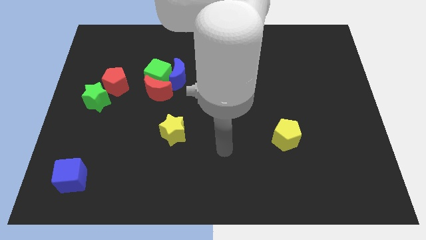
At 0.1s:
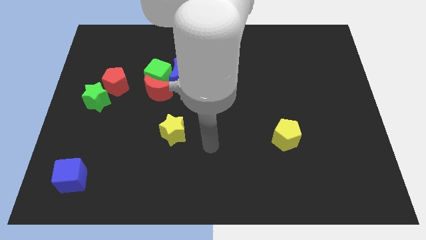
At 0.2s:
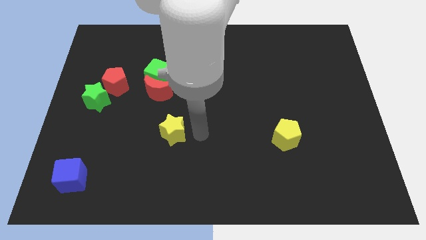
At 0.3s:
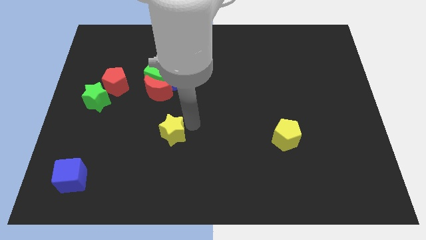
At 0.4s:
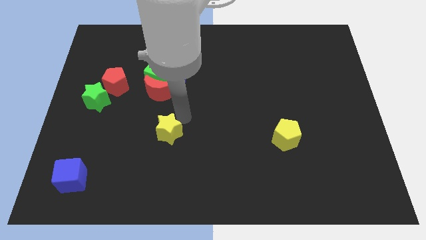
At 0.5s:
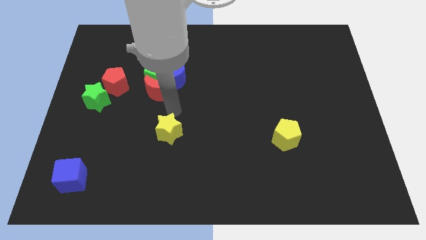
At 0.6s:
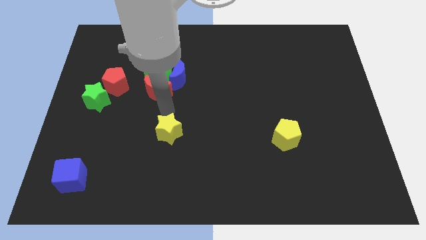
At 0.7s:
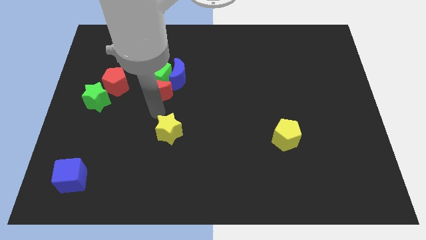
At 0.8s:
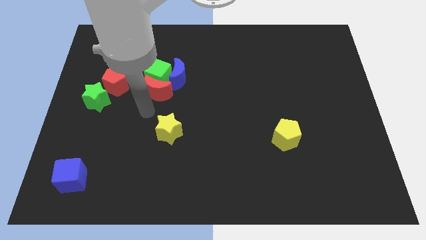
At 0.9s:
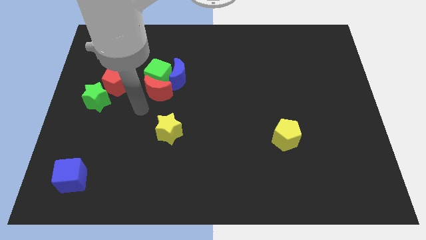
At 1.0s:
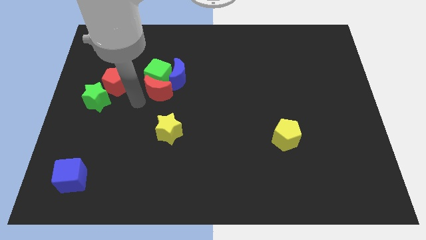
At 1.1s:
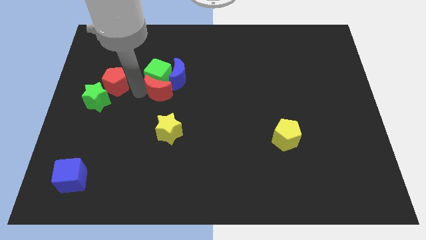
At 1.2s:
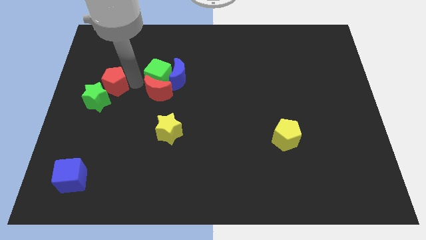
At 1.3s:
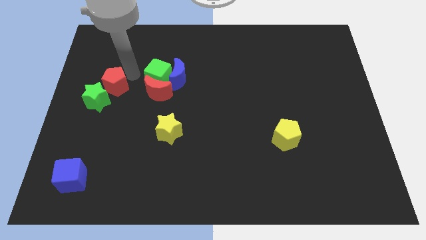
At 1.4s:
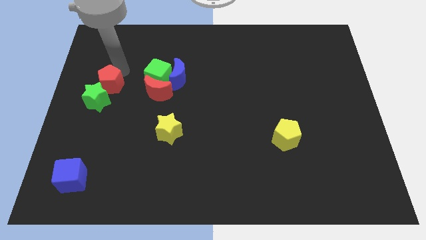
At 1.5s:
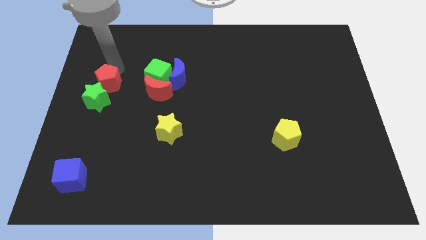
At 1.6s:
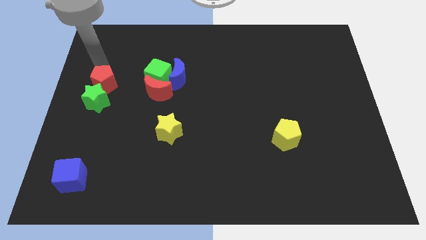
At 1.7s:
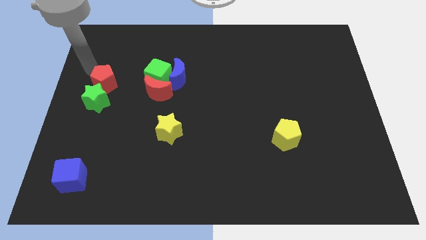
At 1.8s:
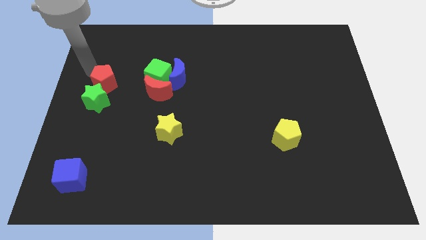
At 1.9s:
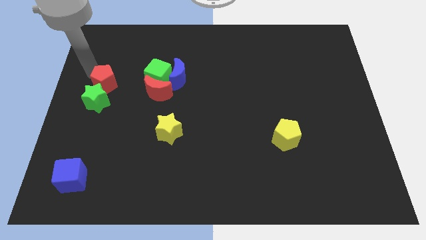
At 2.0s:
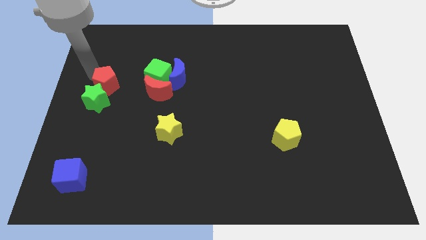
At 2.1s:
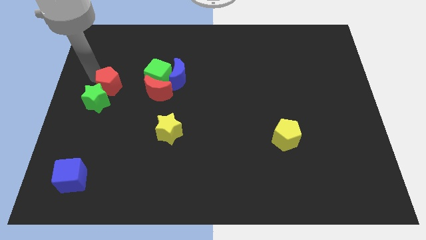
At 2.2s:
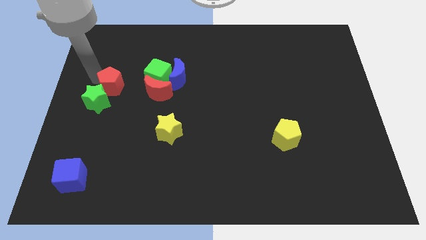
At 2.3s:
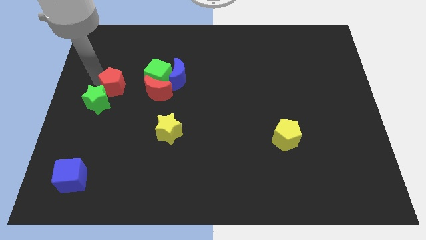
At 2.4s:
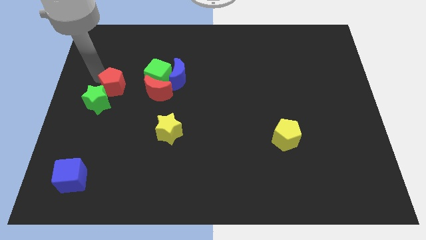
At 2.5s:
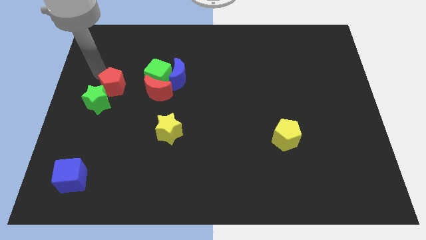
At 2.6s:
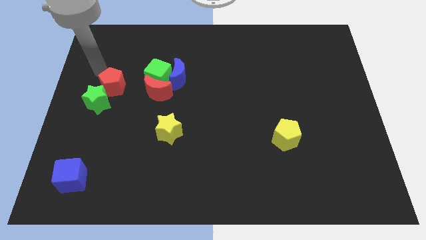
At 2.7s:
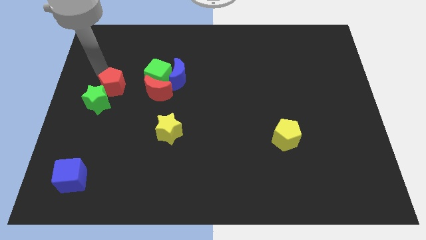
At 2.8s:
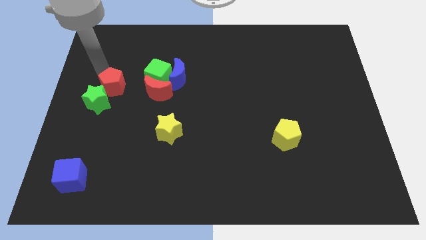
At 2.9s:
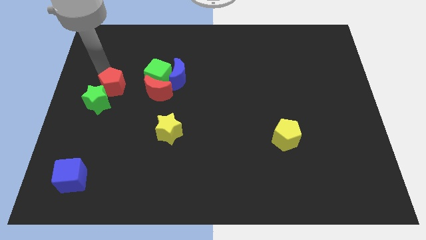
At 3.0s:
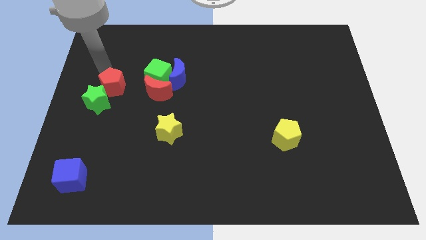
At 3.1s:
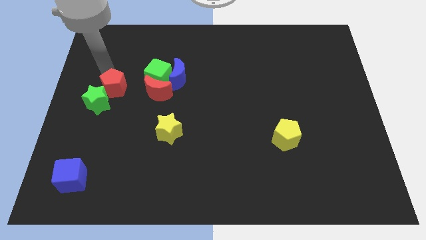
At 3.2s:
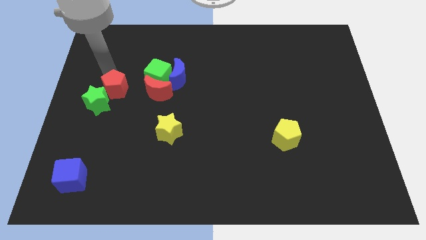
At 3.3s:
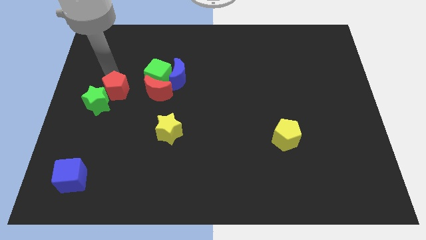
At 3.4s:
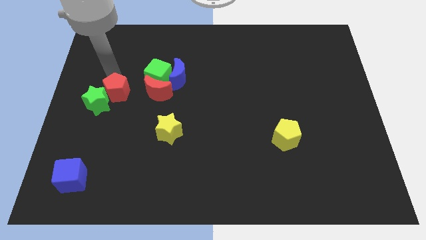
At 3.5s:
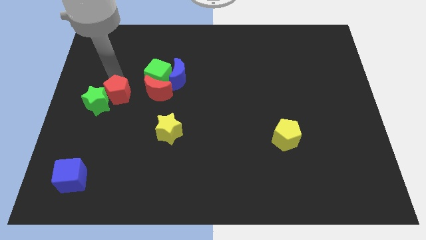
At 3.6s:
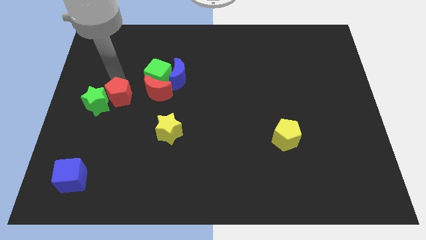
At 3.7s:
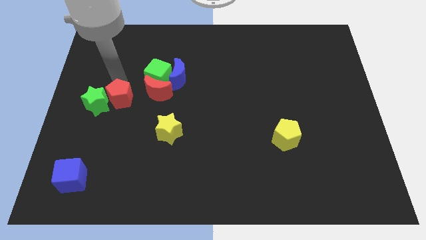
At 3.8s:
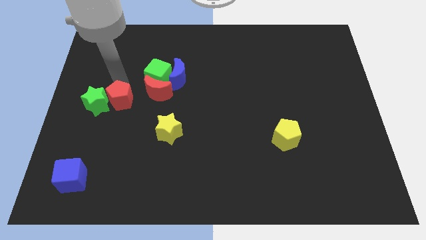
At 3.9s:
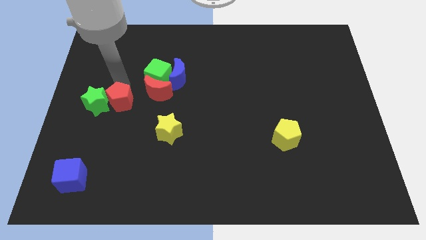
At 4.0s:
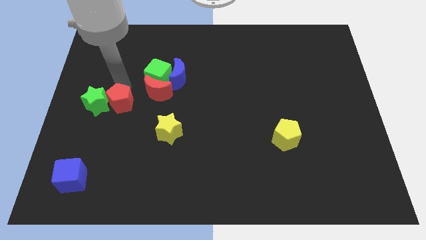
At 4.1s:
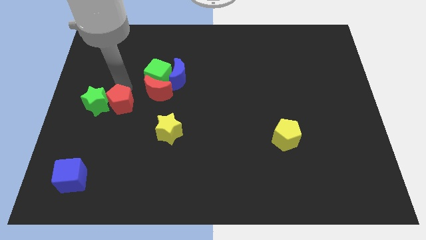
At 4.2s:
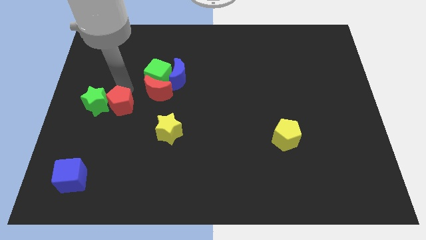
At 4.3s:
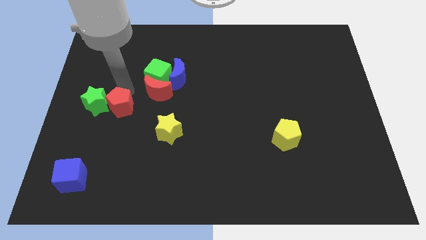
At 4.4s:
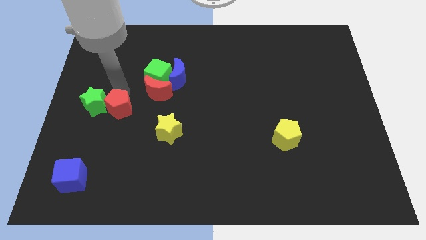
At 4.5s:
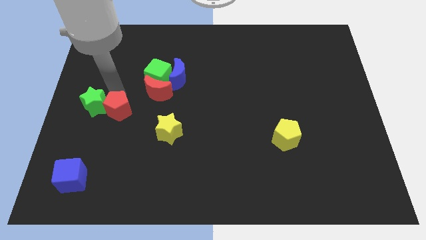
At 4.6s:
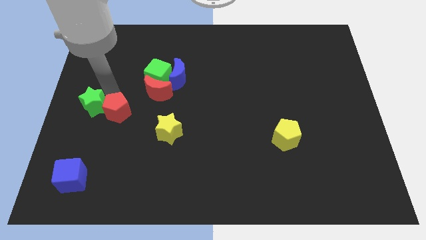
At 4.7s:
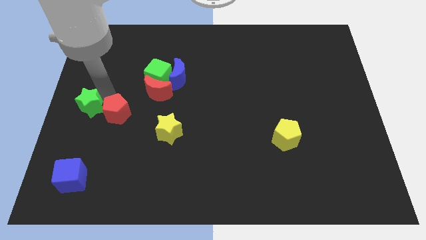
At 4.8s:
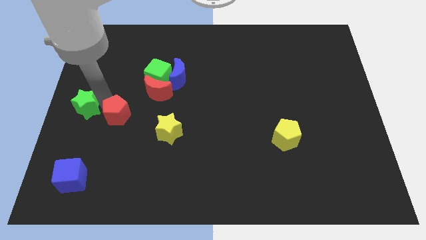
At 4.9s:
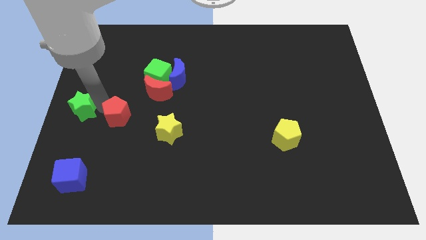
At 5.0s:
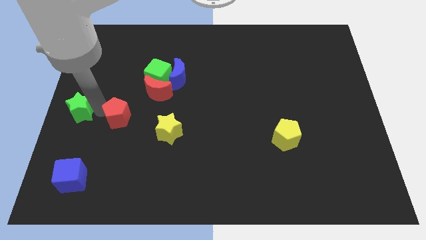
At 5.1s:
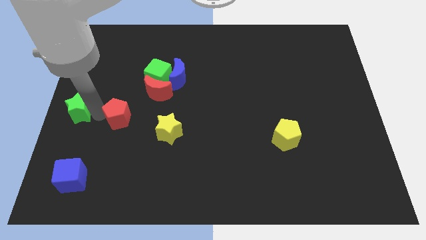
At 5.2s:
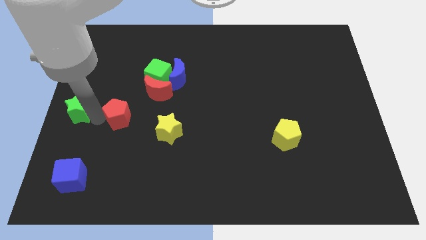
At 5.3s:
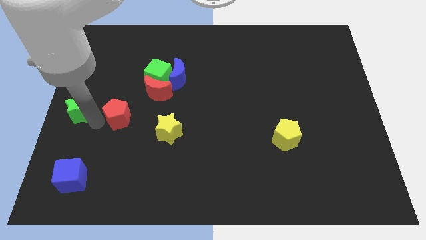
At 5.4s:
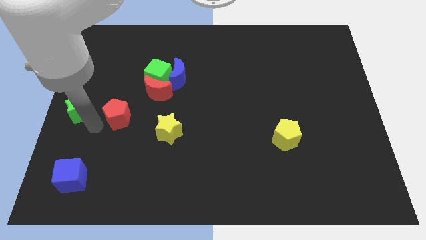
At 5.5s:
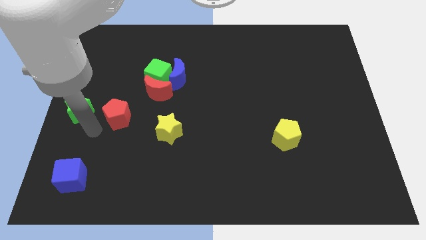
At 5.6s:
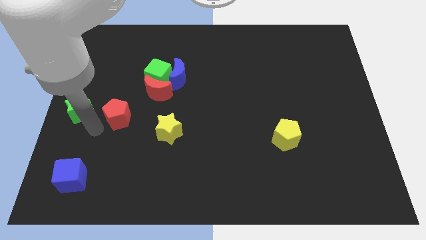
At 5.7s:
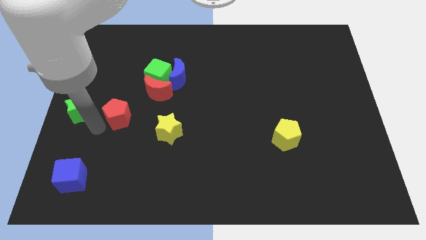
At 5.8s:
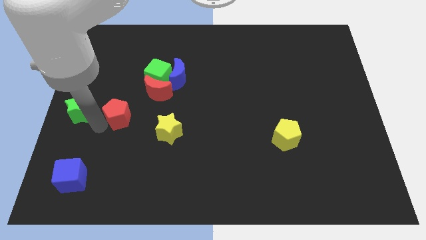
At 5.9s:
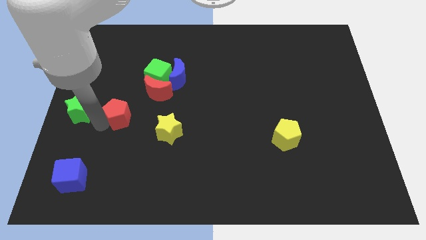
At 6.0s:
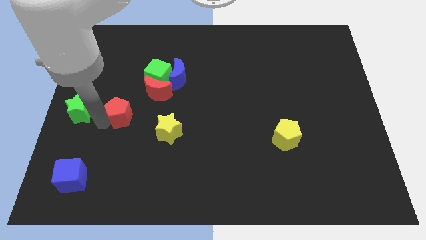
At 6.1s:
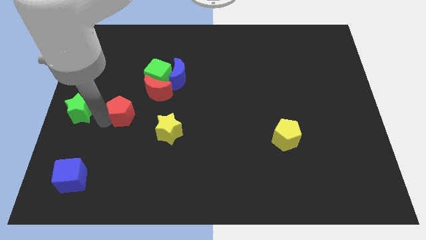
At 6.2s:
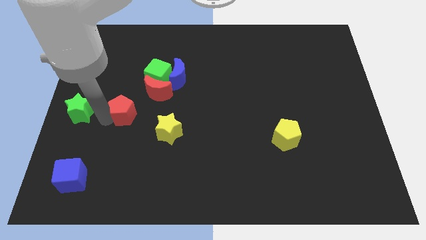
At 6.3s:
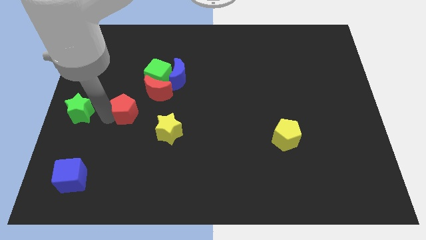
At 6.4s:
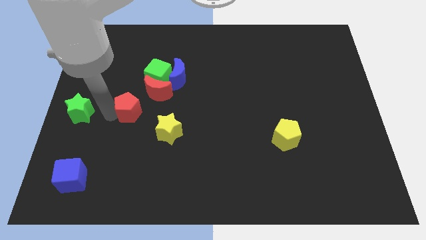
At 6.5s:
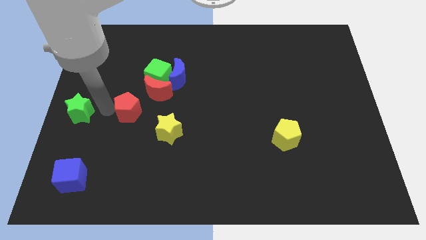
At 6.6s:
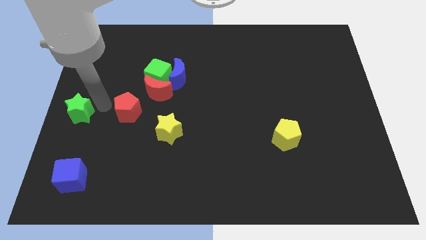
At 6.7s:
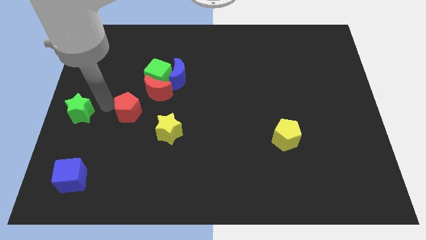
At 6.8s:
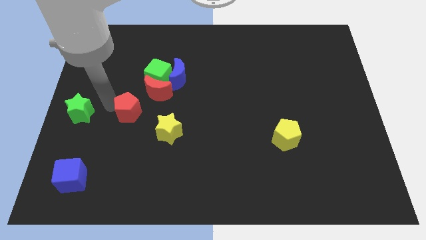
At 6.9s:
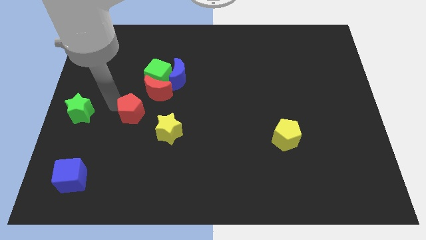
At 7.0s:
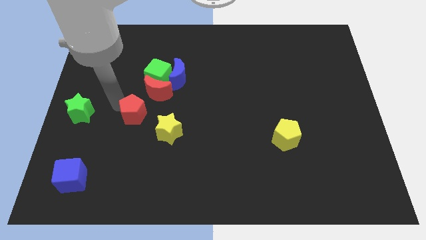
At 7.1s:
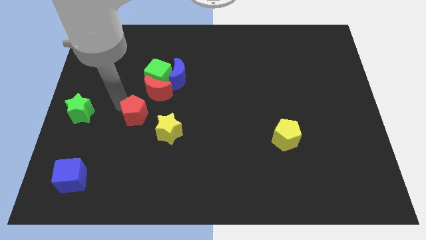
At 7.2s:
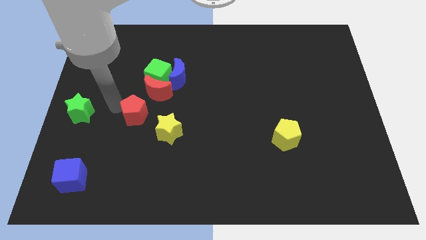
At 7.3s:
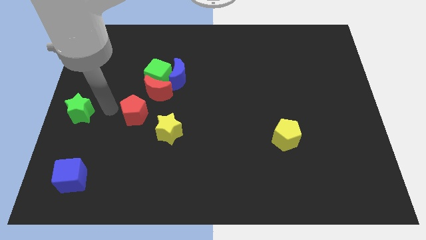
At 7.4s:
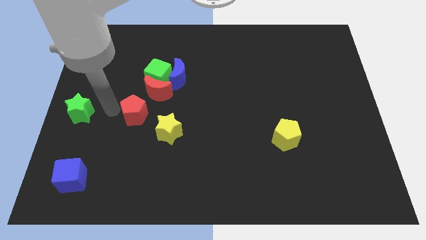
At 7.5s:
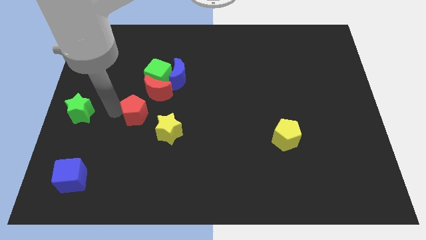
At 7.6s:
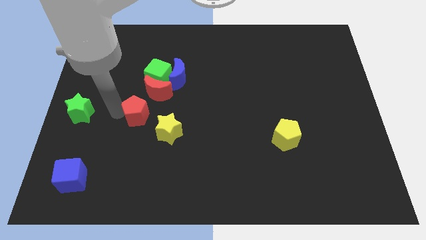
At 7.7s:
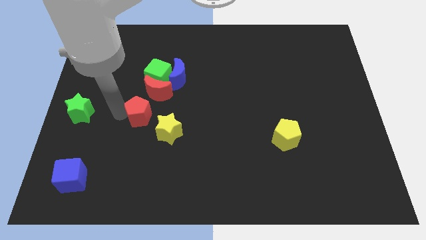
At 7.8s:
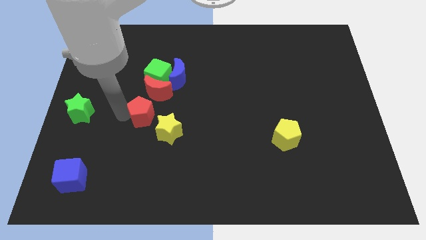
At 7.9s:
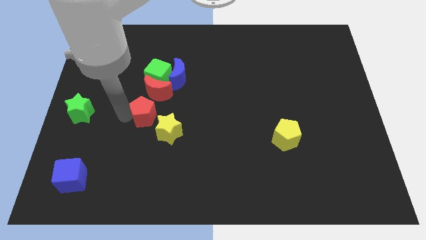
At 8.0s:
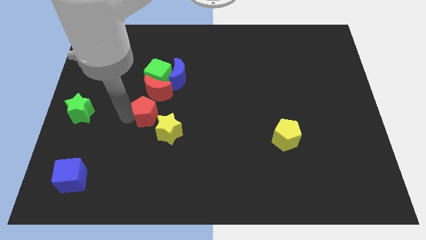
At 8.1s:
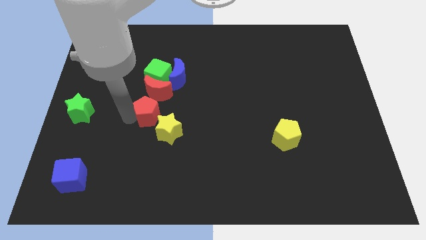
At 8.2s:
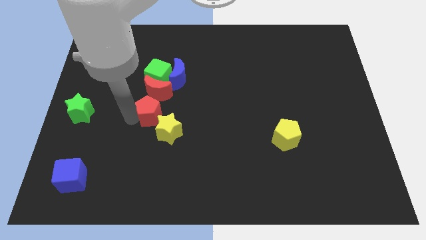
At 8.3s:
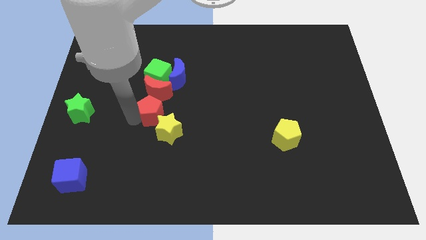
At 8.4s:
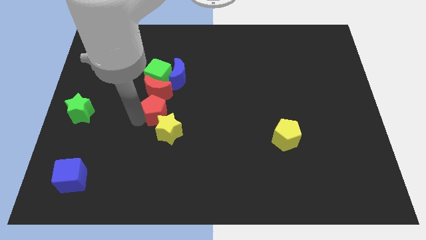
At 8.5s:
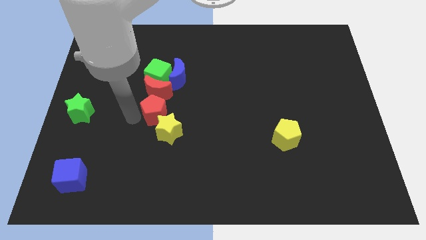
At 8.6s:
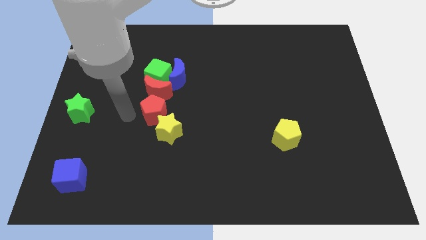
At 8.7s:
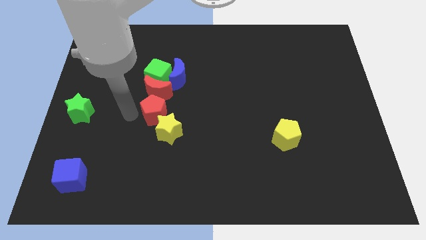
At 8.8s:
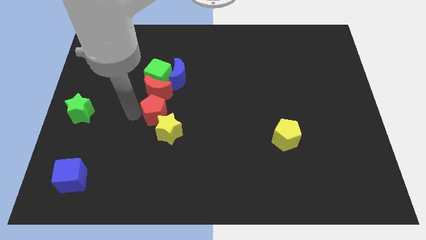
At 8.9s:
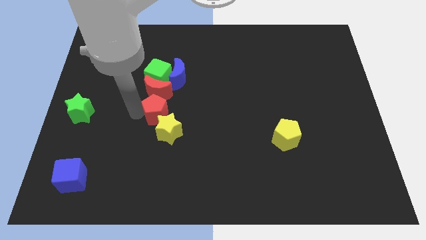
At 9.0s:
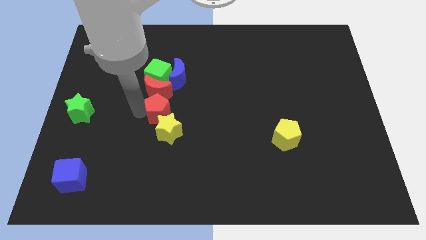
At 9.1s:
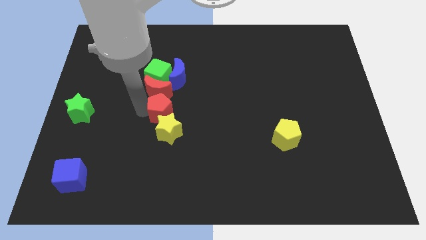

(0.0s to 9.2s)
slide the red pentagon to the center of the board
